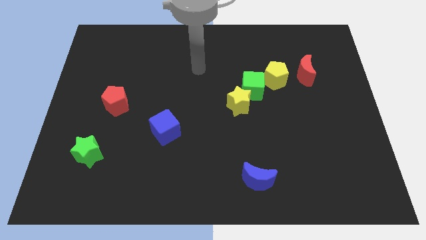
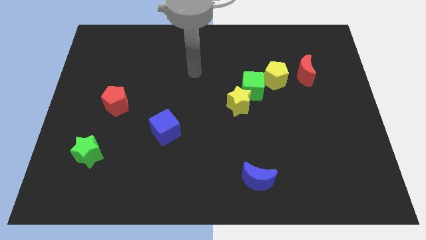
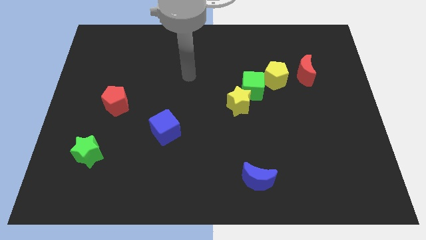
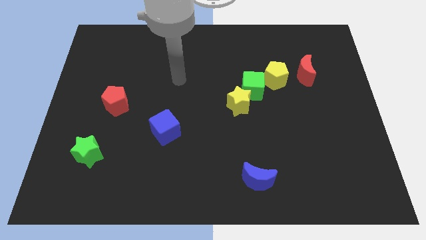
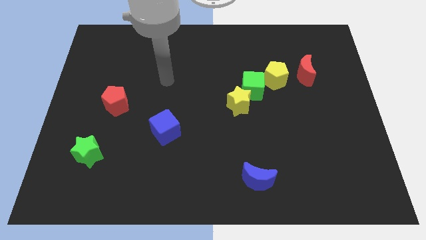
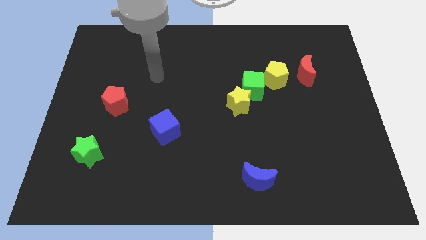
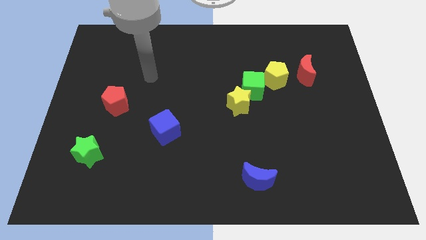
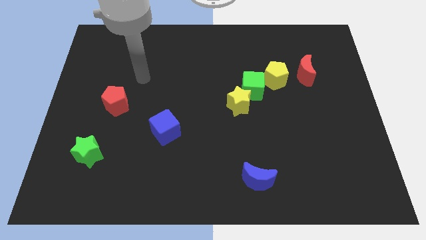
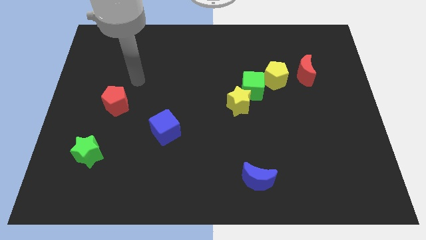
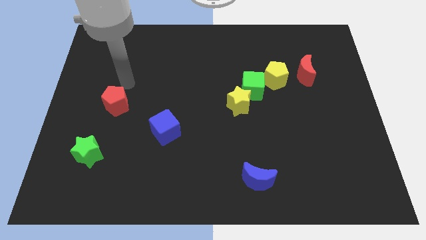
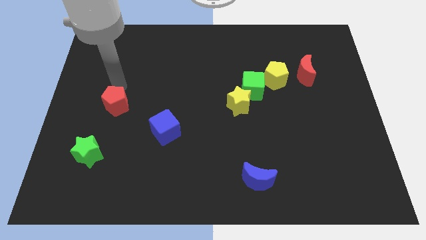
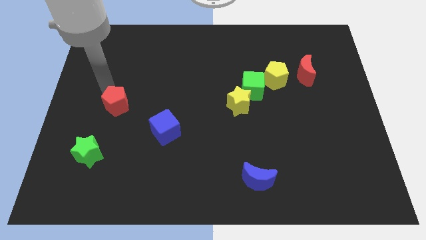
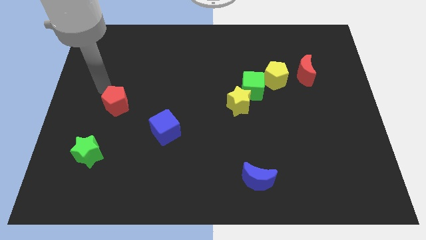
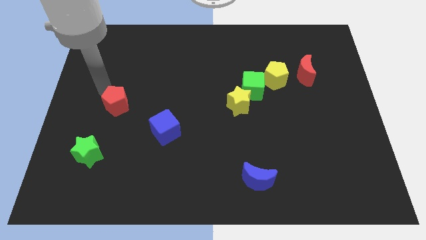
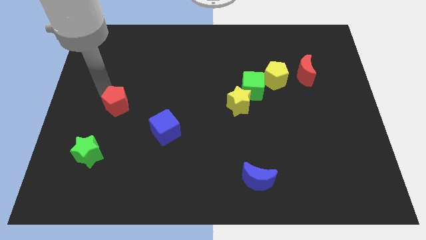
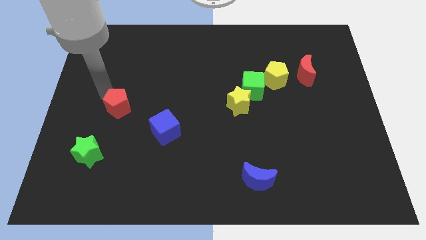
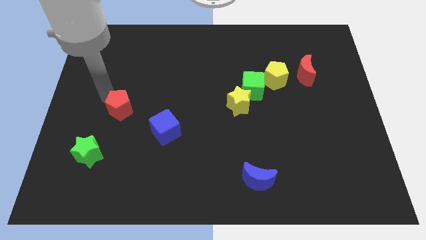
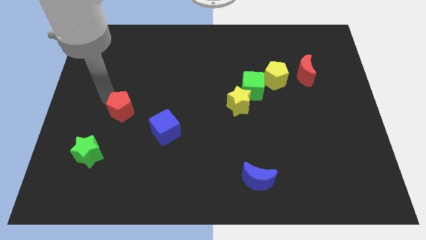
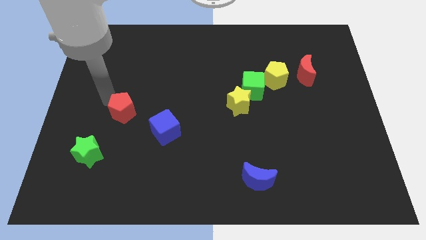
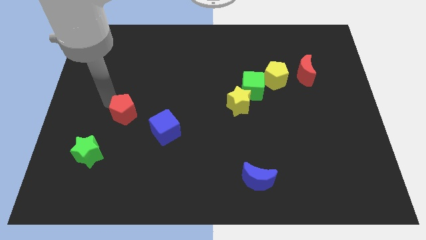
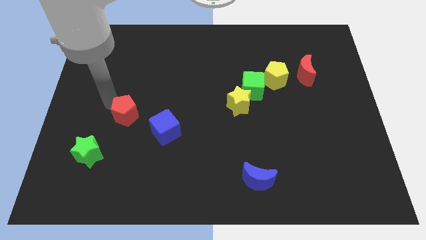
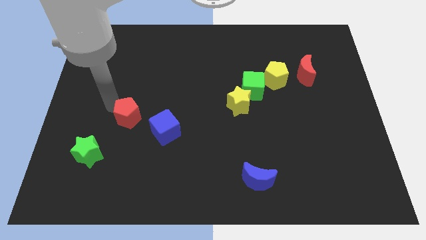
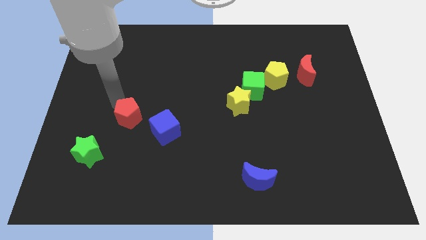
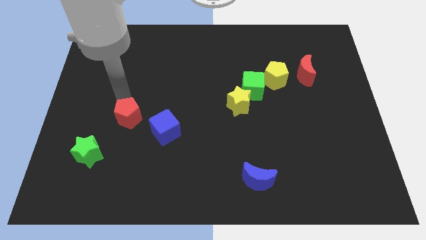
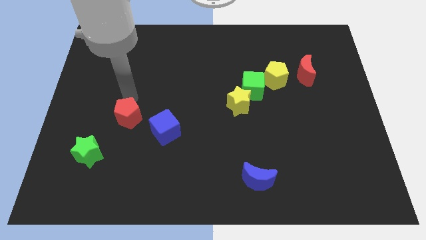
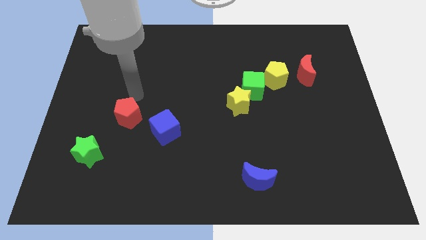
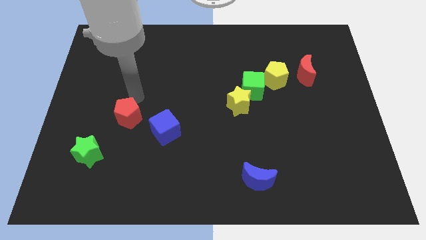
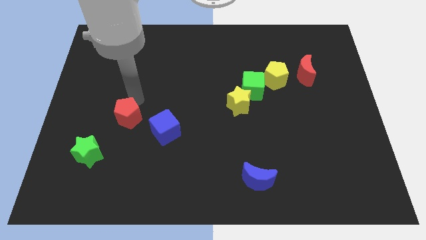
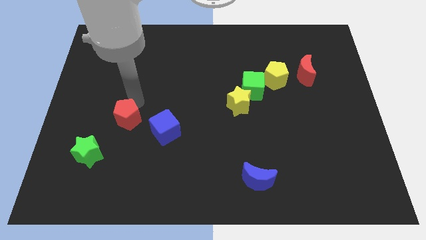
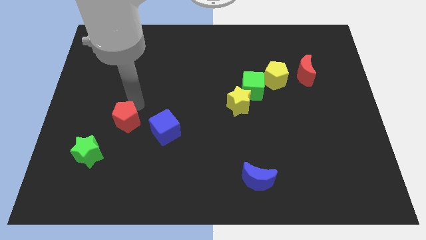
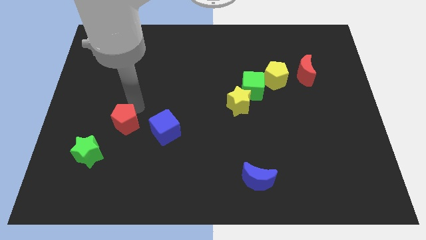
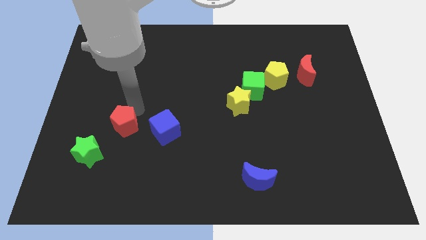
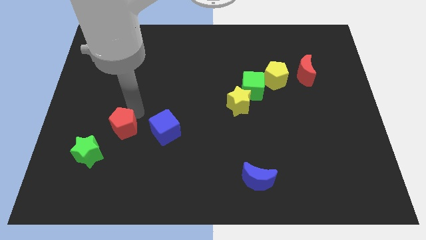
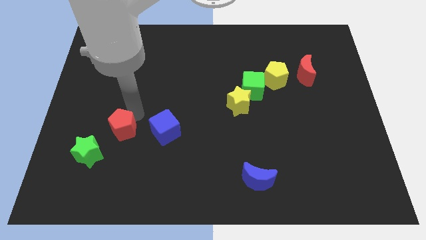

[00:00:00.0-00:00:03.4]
slightly push the red pentagon down

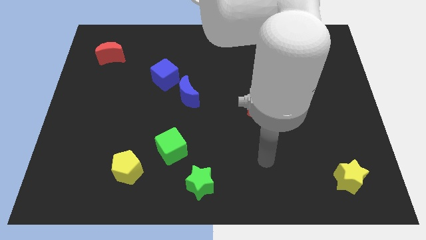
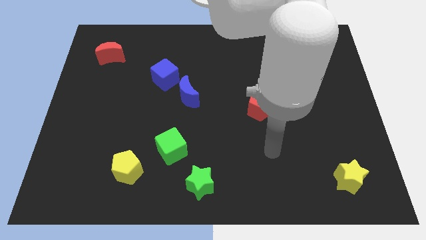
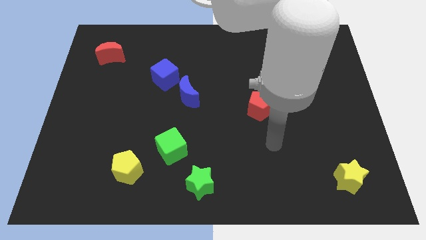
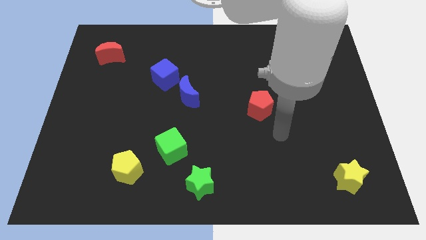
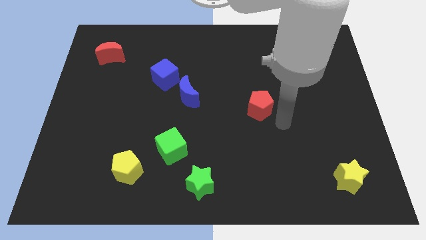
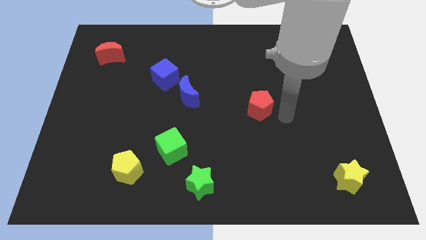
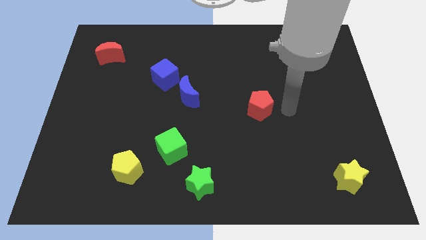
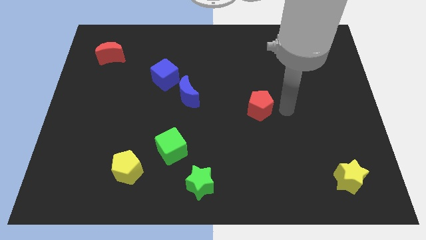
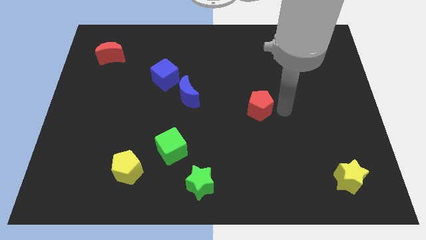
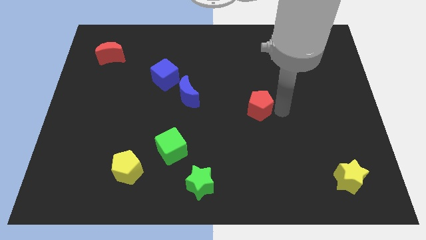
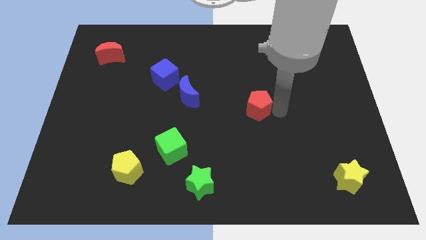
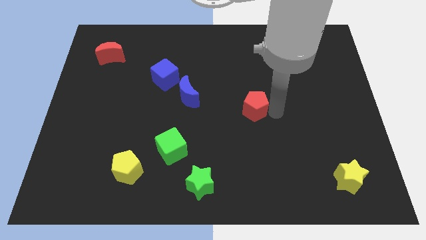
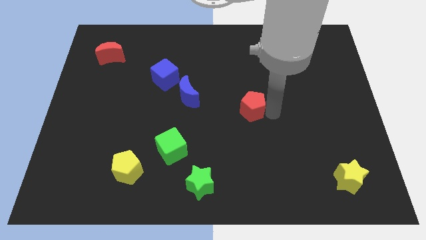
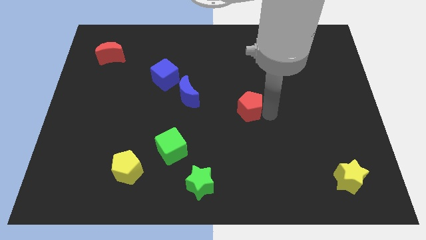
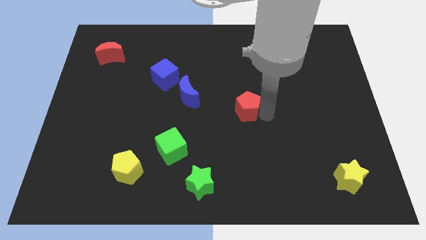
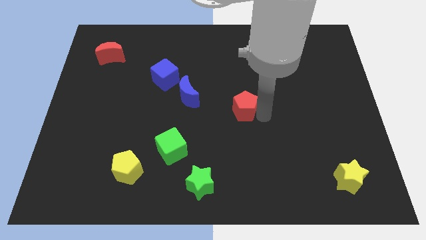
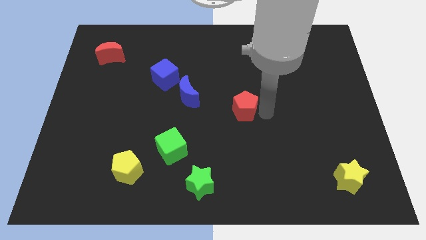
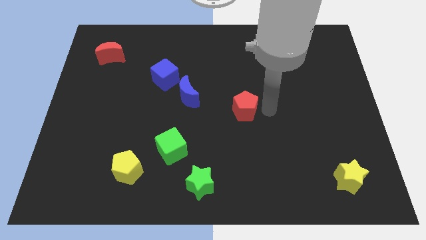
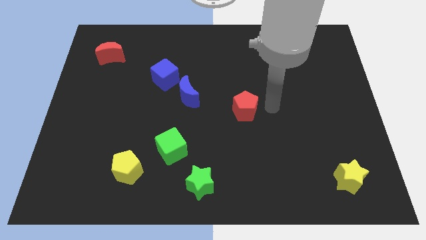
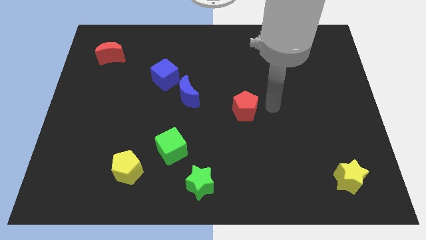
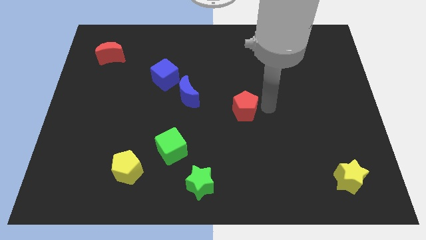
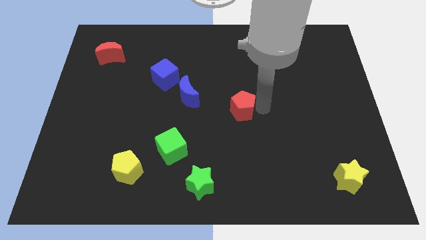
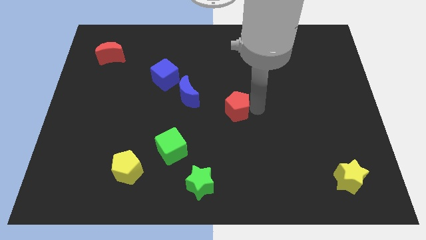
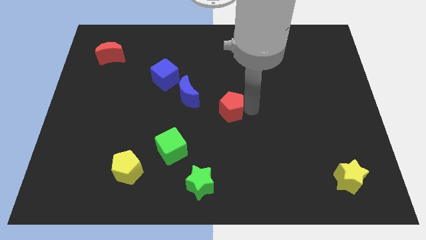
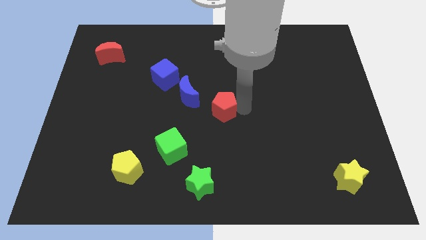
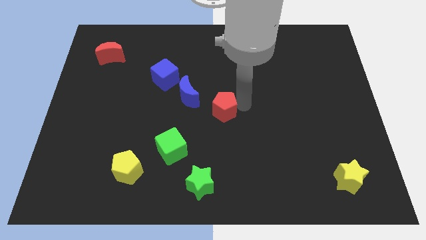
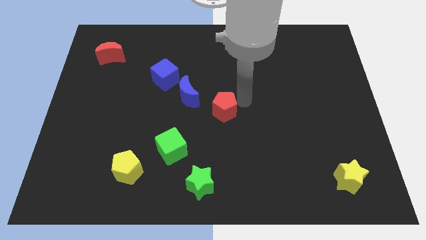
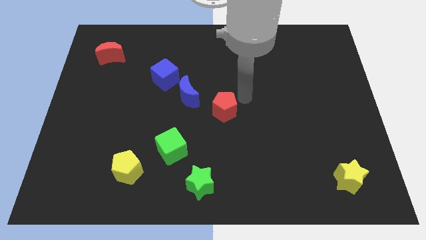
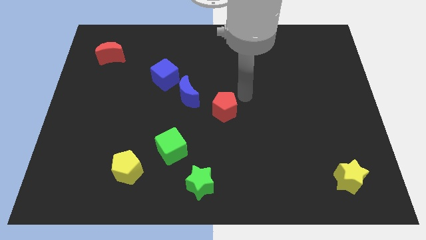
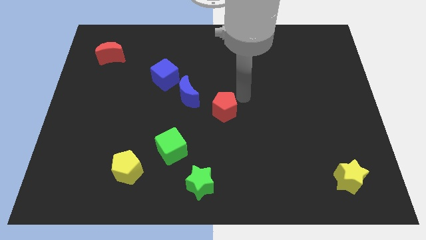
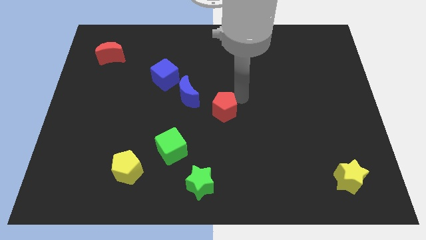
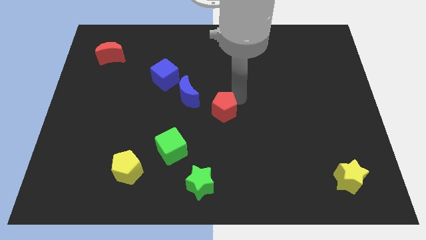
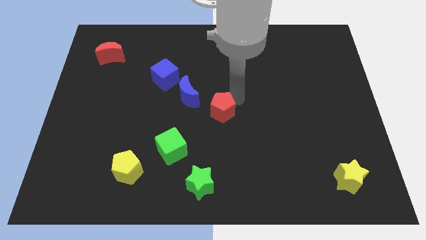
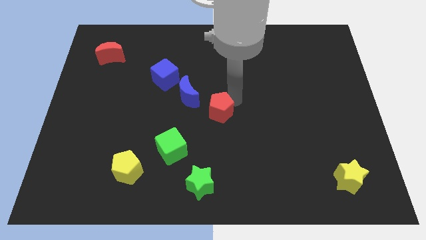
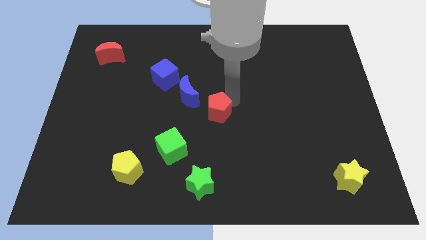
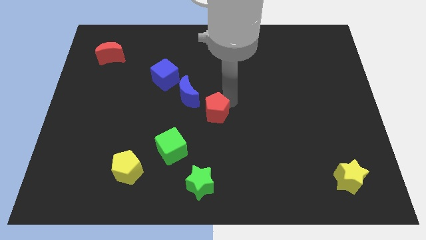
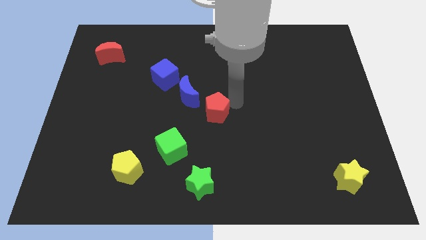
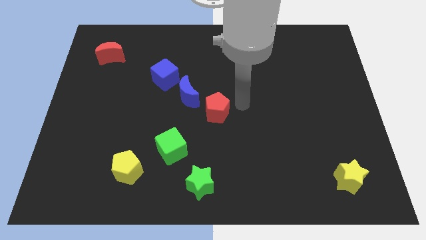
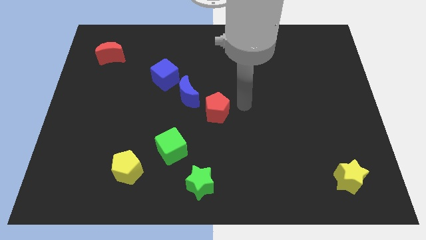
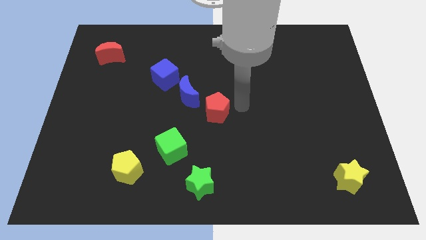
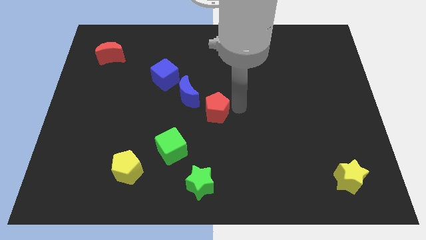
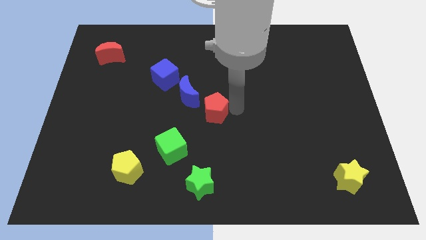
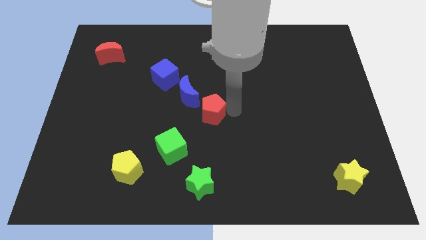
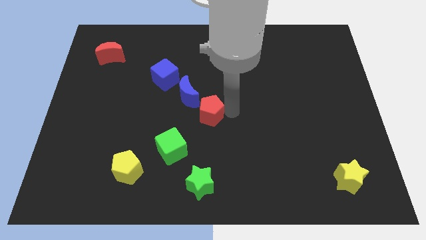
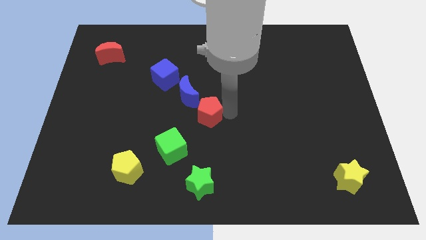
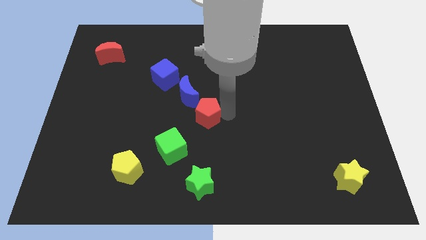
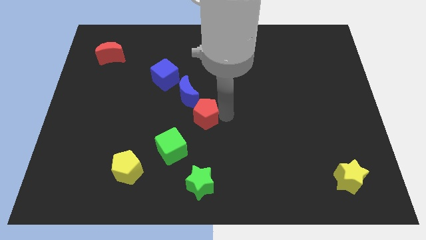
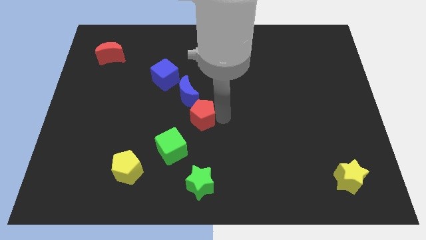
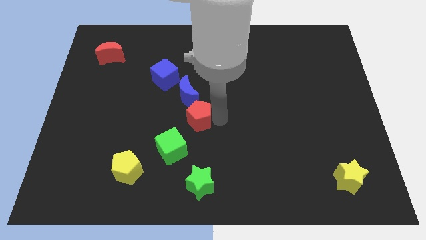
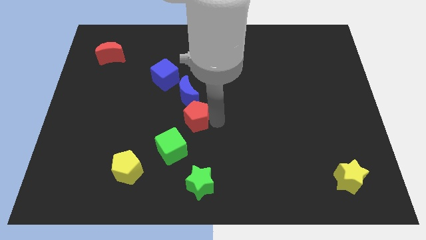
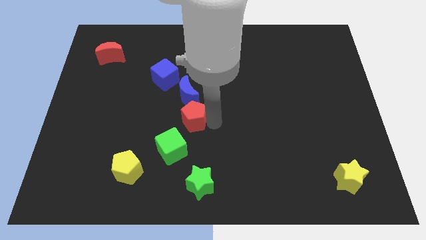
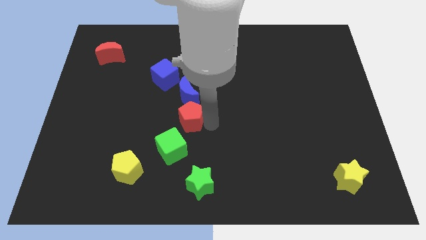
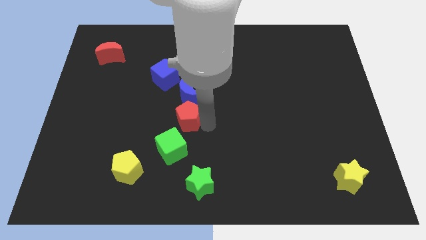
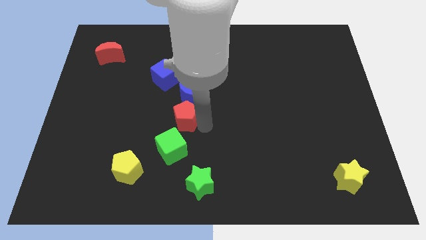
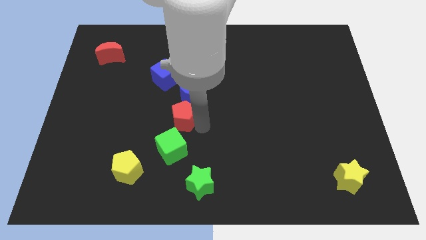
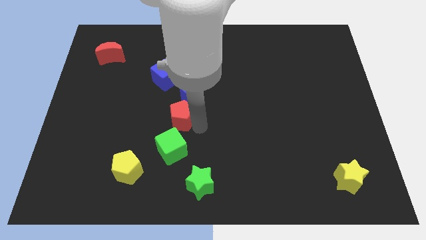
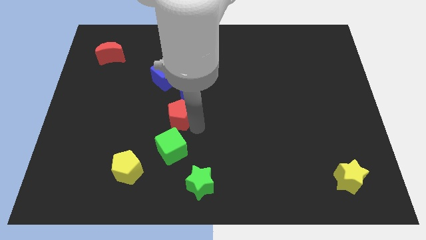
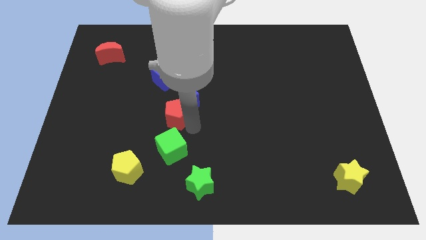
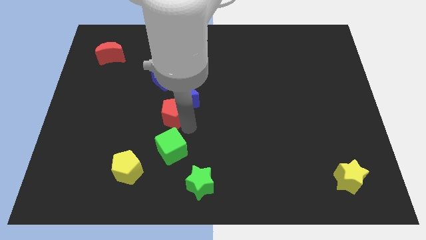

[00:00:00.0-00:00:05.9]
push the red pentagon left
